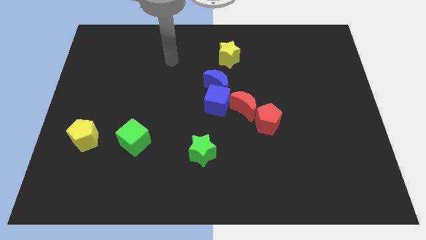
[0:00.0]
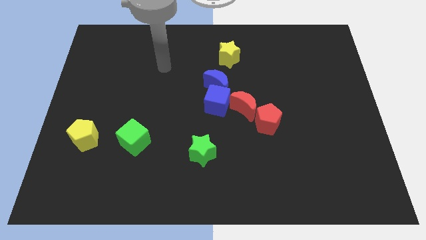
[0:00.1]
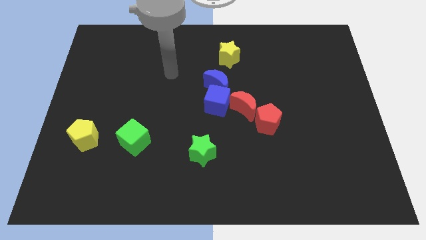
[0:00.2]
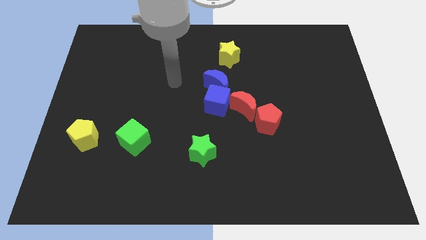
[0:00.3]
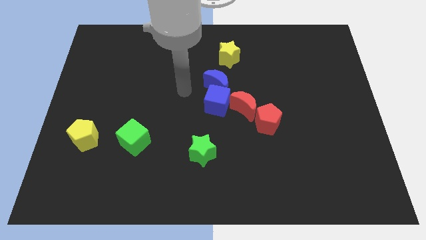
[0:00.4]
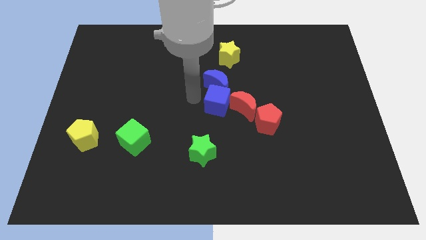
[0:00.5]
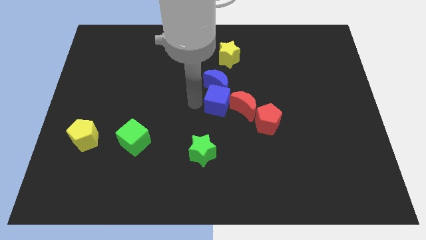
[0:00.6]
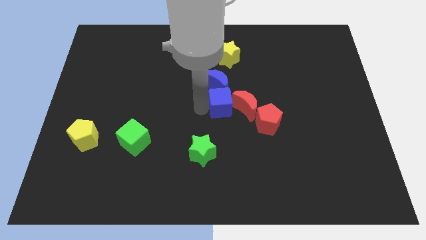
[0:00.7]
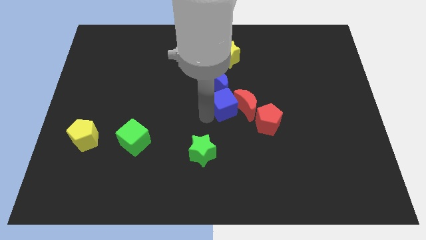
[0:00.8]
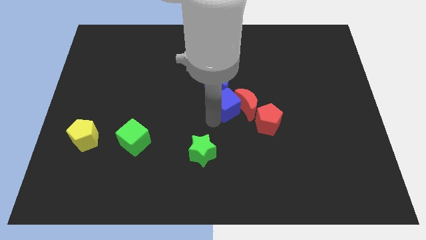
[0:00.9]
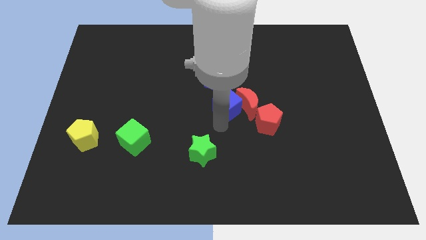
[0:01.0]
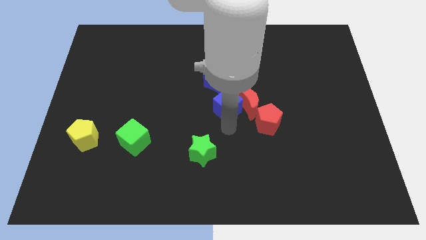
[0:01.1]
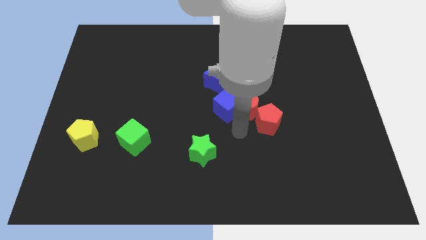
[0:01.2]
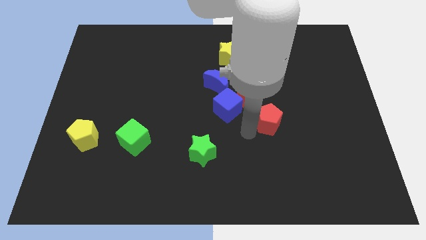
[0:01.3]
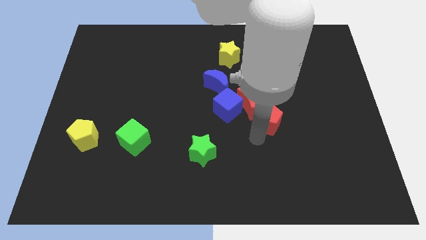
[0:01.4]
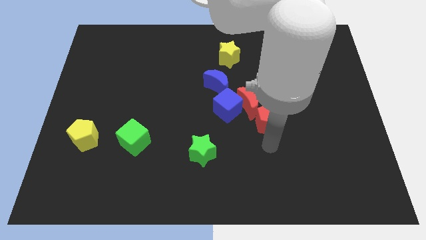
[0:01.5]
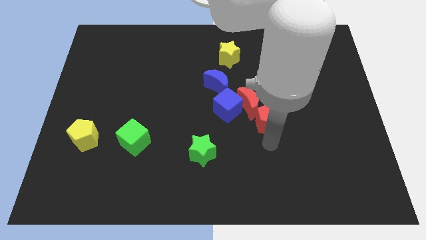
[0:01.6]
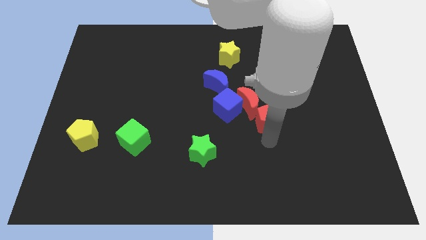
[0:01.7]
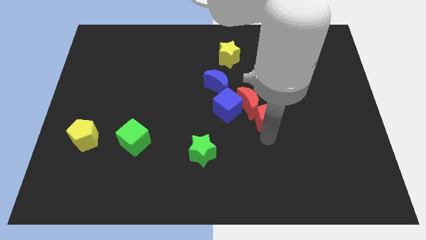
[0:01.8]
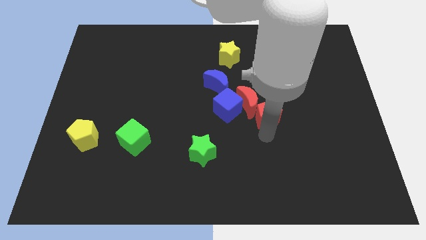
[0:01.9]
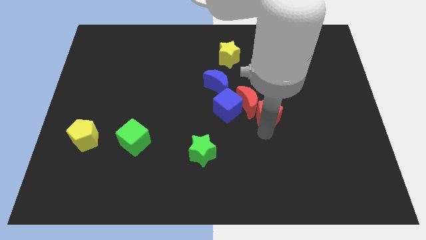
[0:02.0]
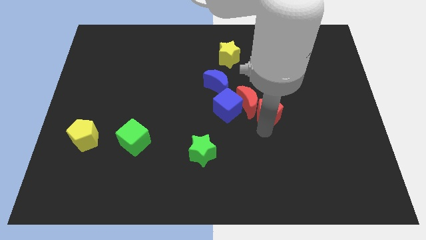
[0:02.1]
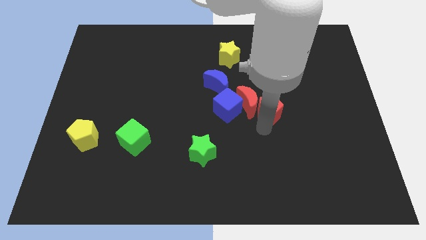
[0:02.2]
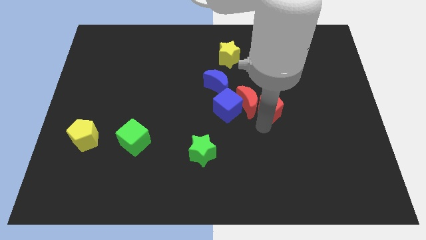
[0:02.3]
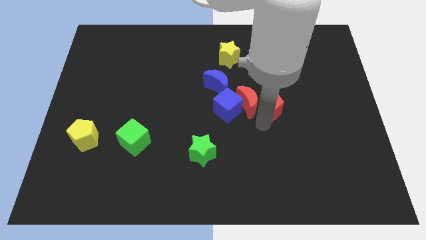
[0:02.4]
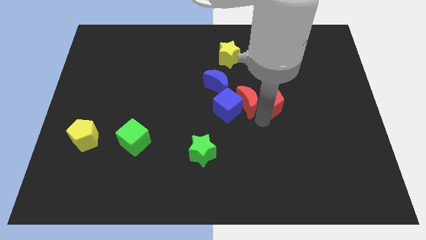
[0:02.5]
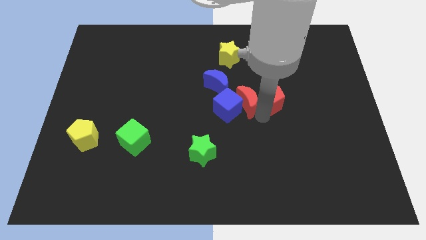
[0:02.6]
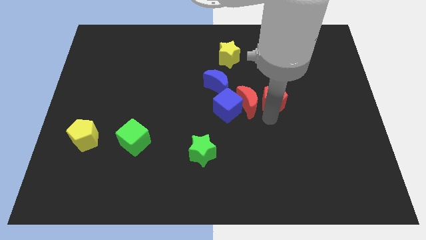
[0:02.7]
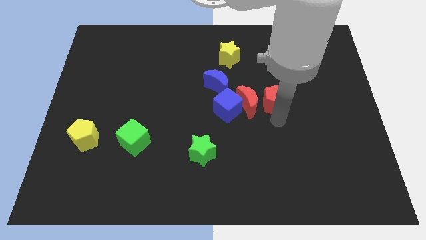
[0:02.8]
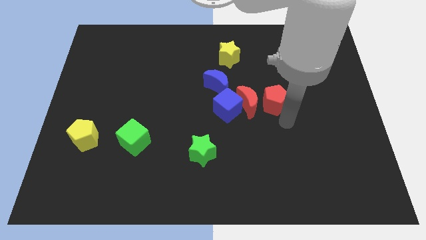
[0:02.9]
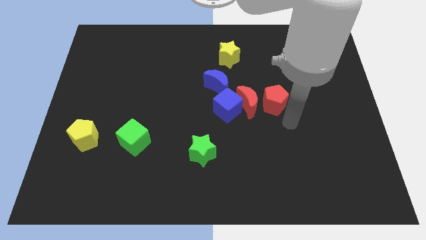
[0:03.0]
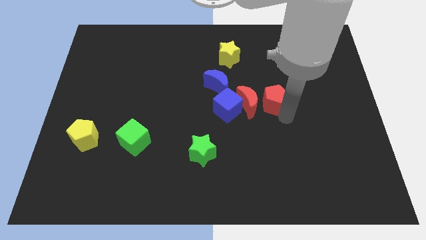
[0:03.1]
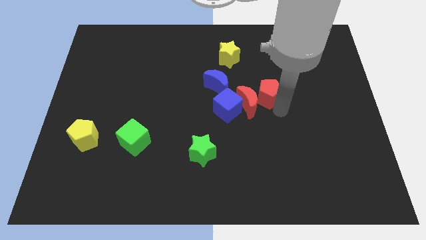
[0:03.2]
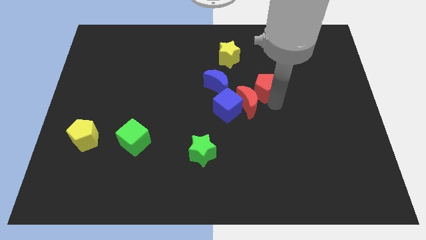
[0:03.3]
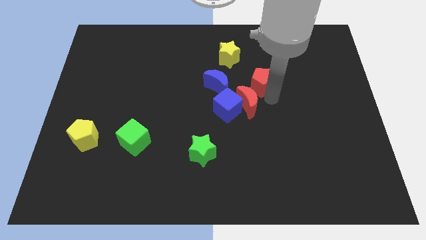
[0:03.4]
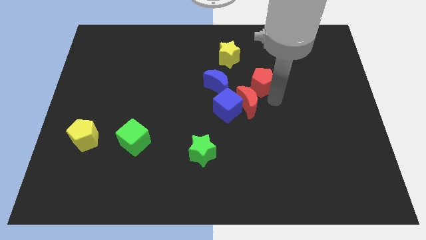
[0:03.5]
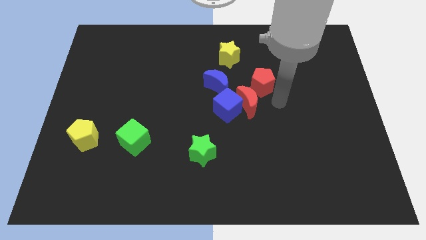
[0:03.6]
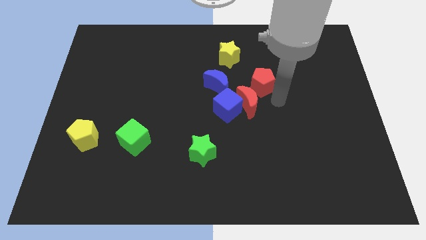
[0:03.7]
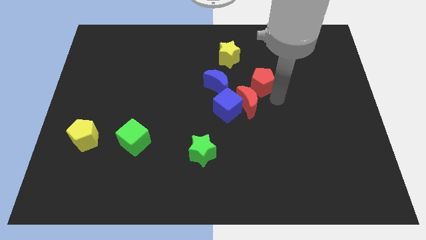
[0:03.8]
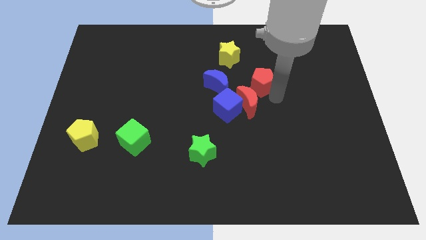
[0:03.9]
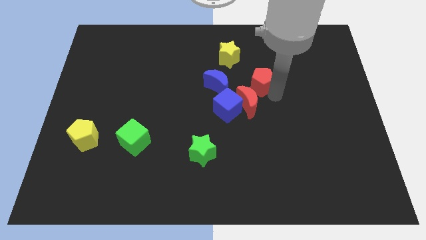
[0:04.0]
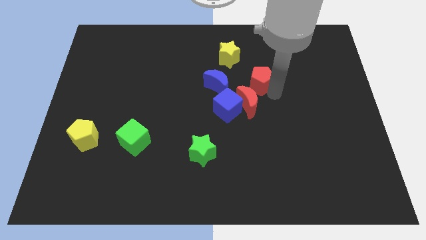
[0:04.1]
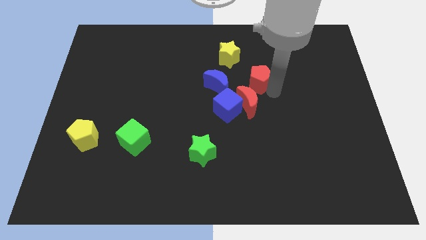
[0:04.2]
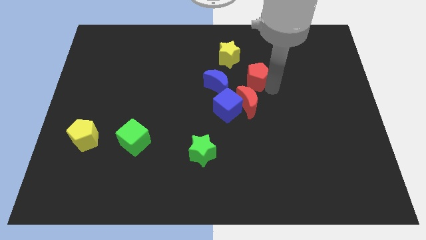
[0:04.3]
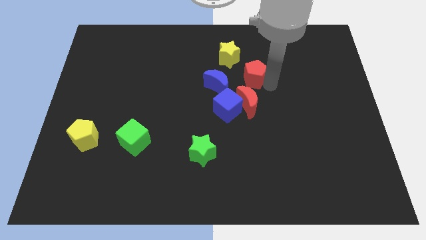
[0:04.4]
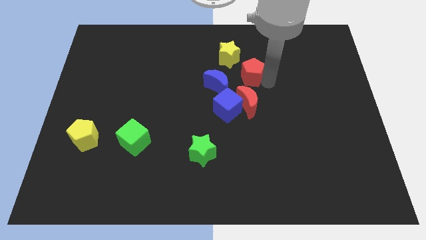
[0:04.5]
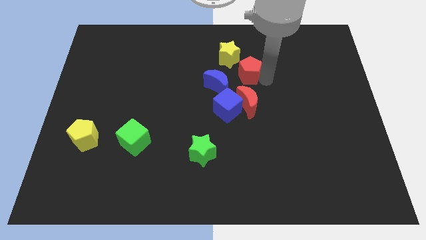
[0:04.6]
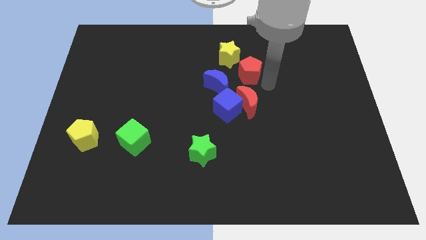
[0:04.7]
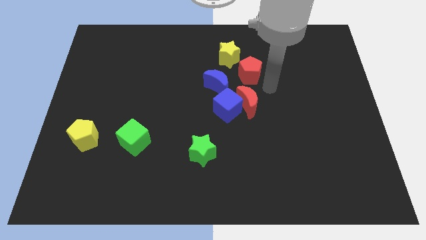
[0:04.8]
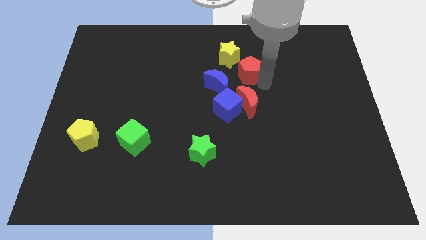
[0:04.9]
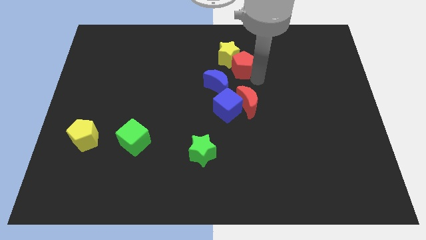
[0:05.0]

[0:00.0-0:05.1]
put the red pentagon to the yellow star

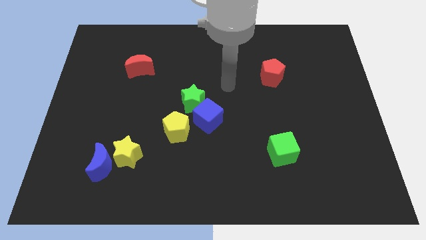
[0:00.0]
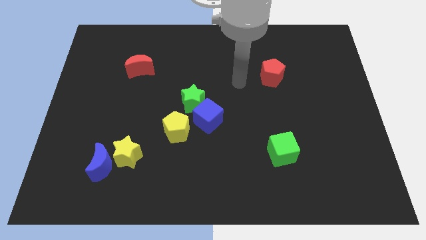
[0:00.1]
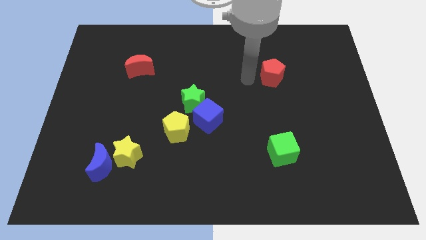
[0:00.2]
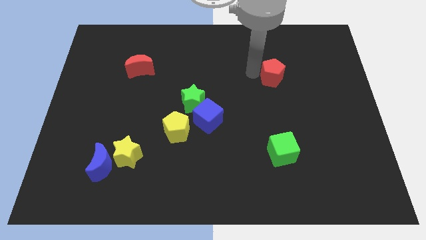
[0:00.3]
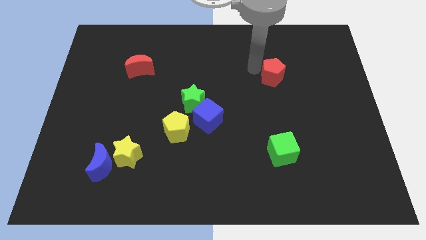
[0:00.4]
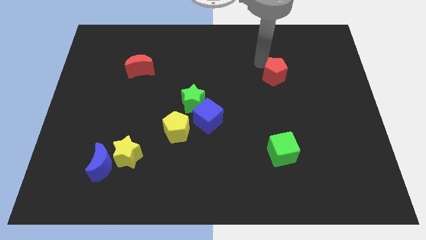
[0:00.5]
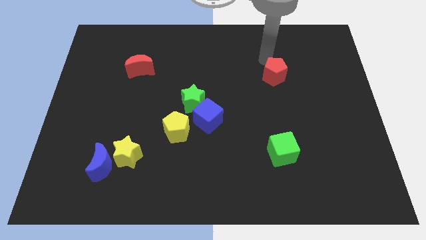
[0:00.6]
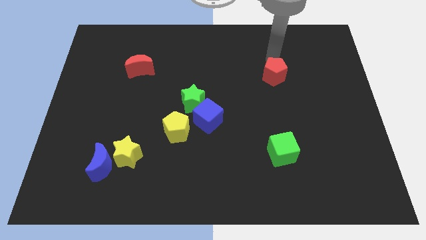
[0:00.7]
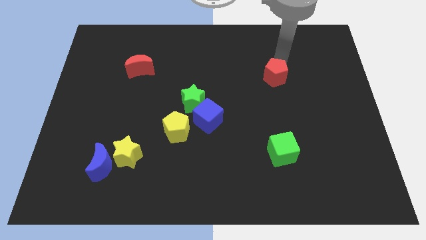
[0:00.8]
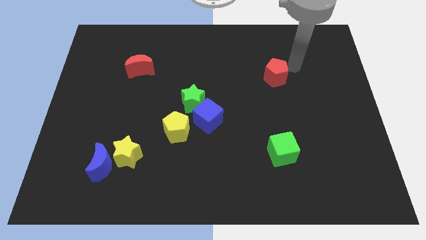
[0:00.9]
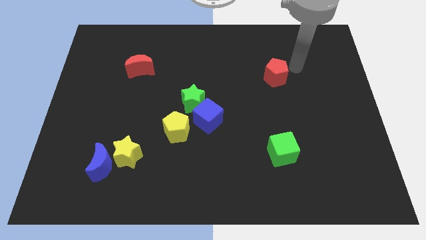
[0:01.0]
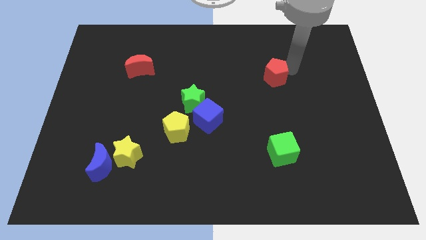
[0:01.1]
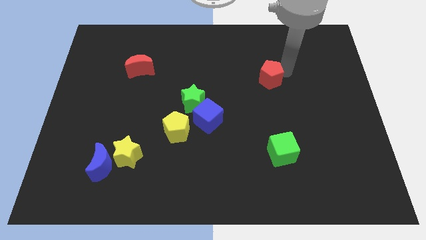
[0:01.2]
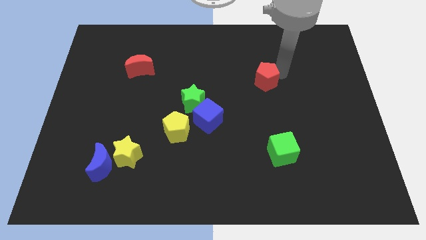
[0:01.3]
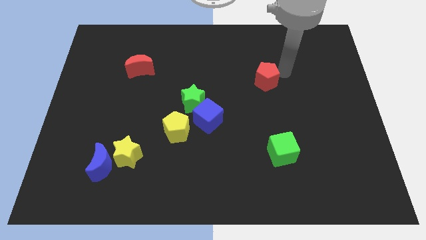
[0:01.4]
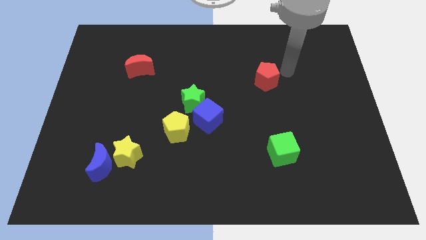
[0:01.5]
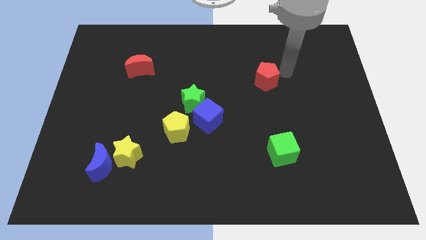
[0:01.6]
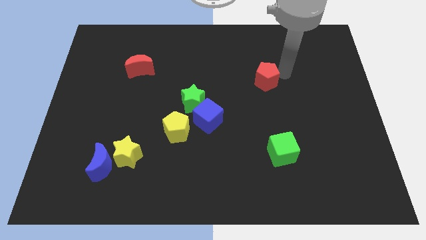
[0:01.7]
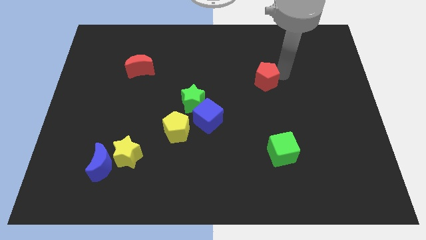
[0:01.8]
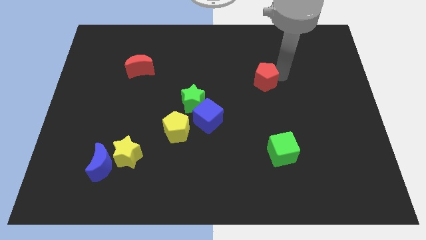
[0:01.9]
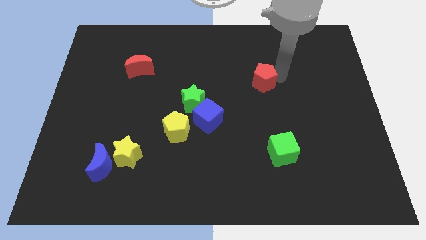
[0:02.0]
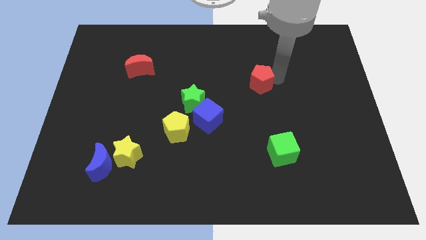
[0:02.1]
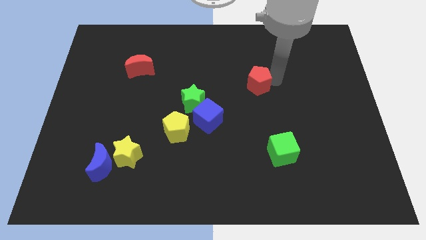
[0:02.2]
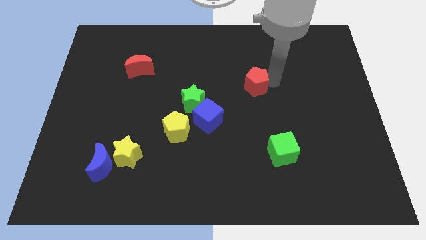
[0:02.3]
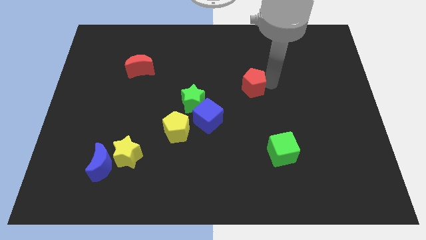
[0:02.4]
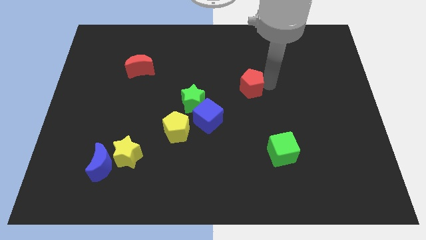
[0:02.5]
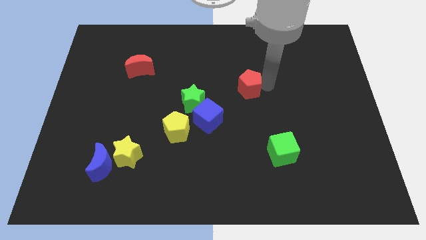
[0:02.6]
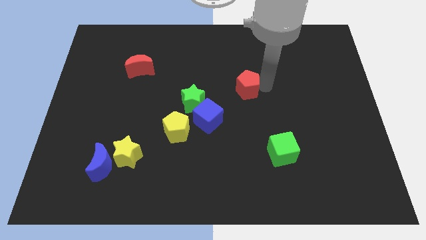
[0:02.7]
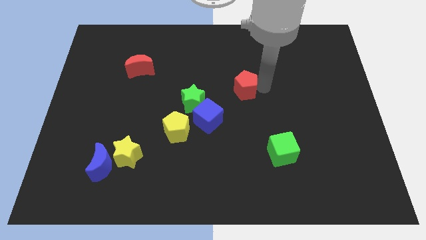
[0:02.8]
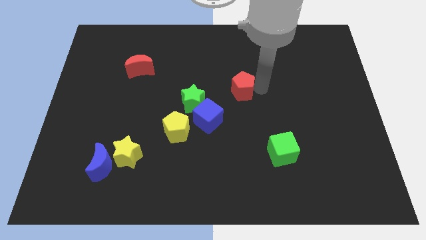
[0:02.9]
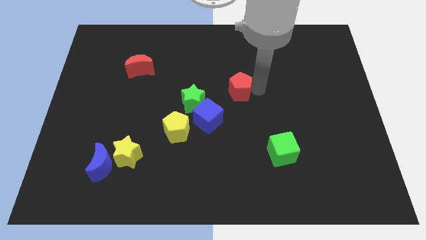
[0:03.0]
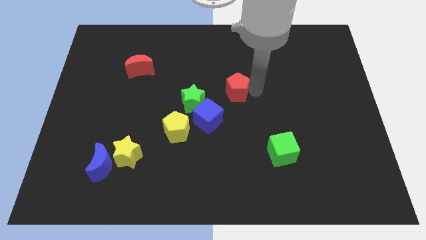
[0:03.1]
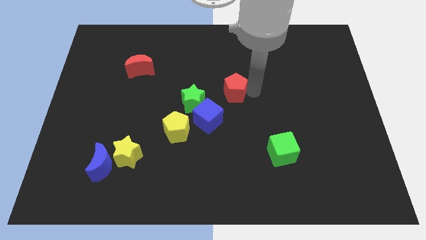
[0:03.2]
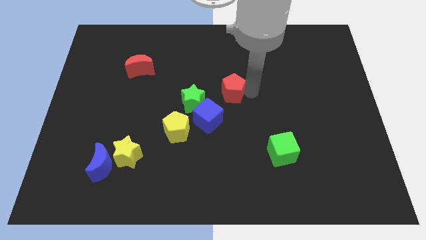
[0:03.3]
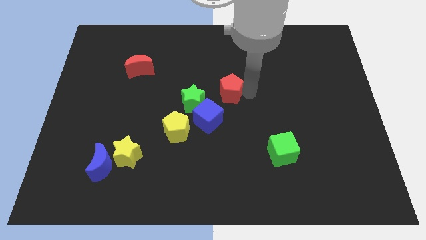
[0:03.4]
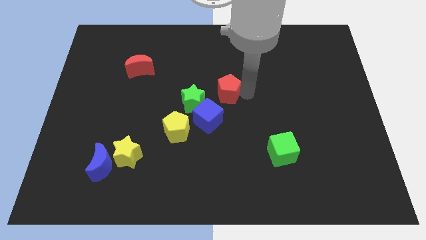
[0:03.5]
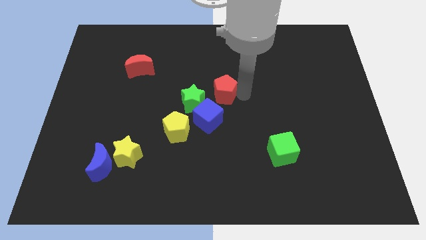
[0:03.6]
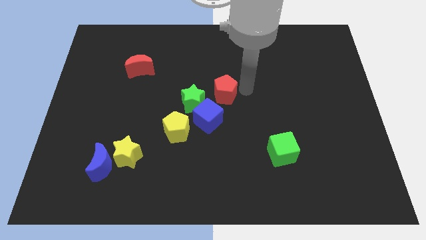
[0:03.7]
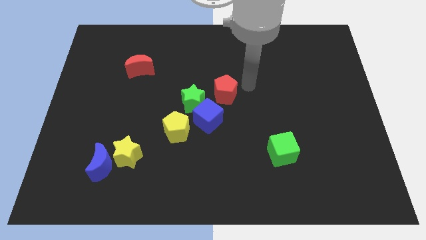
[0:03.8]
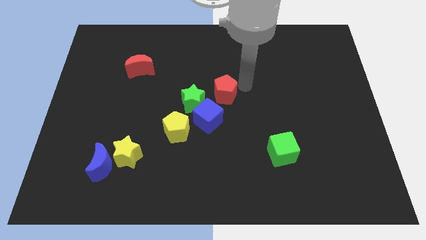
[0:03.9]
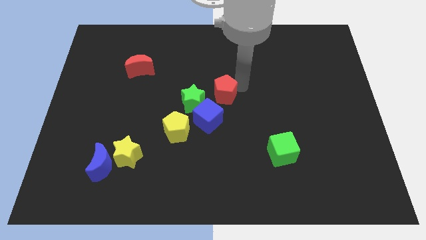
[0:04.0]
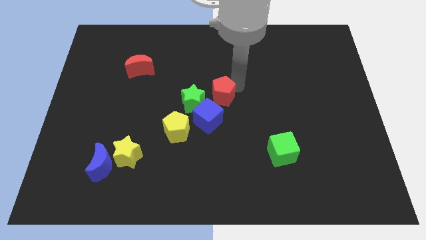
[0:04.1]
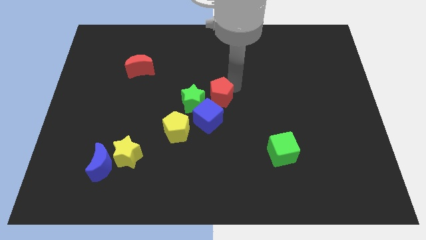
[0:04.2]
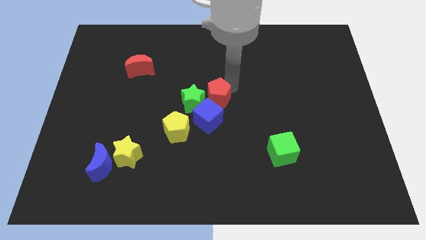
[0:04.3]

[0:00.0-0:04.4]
put the red pentagon to the green star
